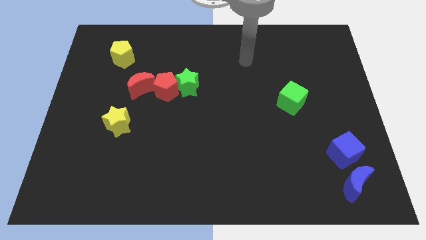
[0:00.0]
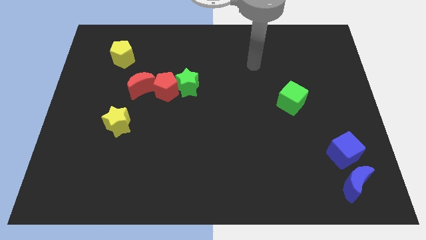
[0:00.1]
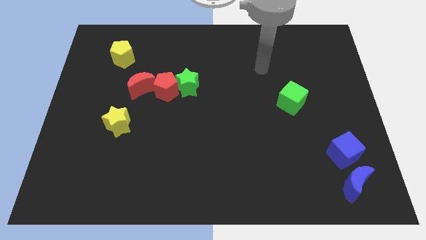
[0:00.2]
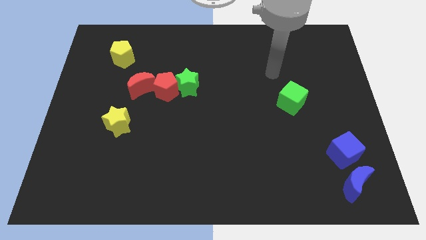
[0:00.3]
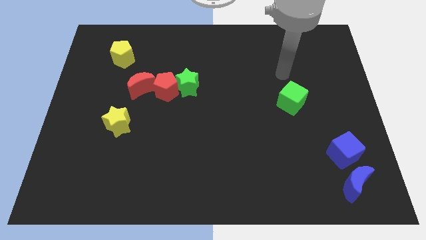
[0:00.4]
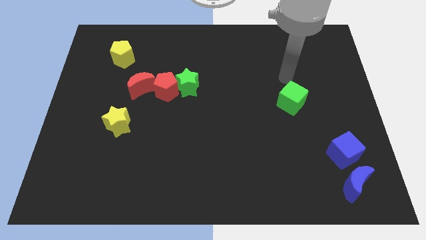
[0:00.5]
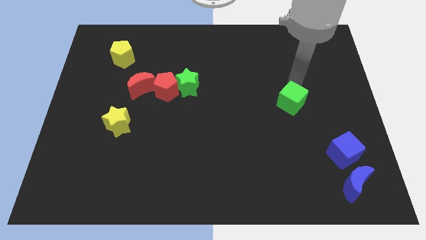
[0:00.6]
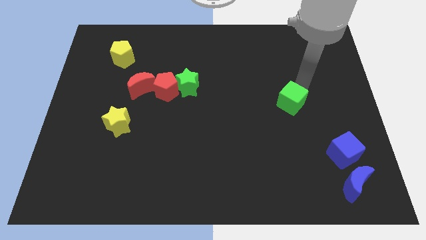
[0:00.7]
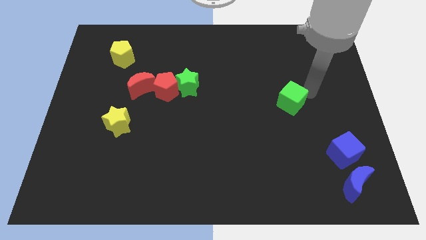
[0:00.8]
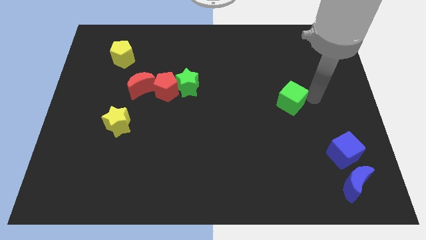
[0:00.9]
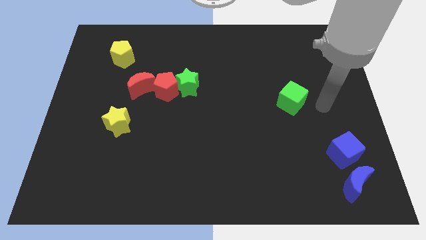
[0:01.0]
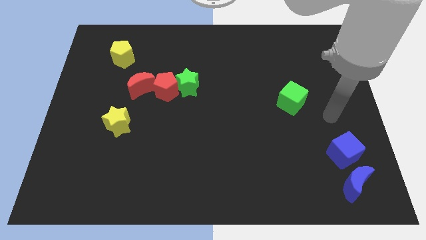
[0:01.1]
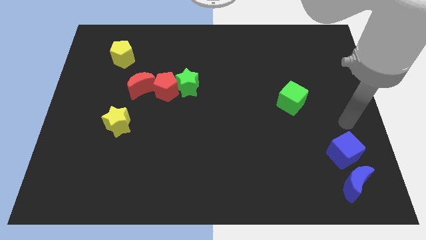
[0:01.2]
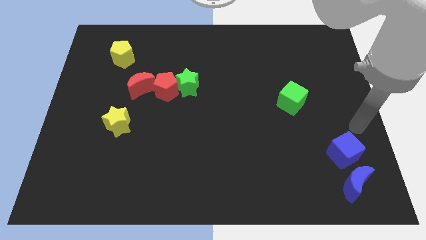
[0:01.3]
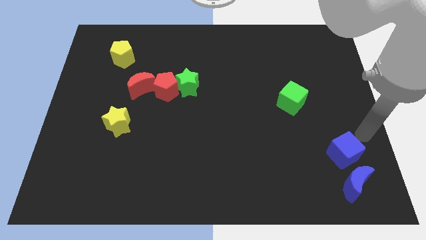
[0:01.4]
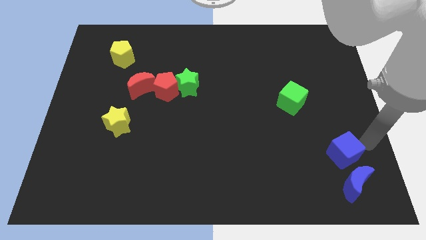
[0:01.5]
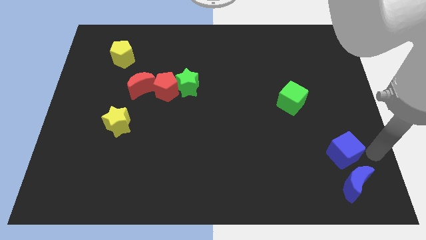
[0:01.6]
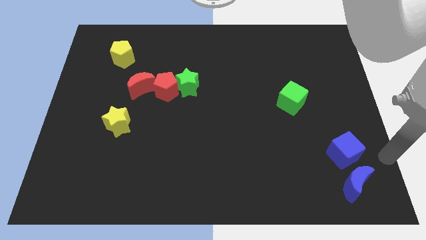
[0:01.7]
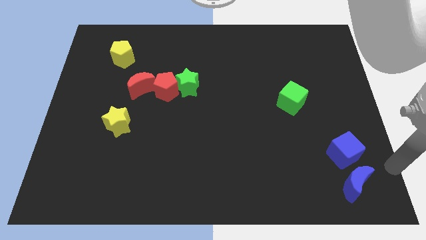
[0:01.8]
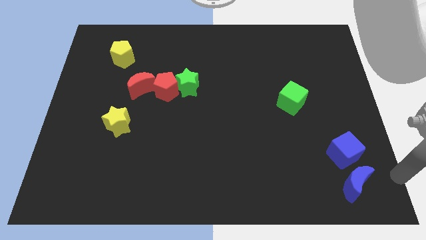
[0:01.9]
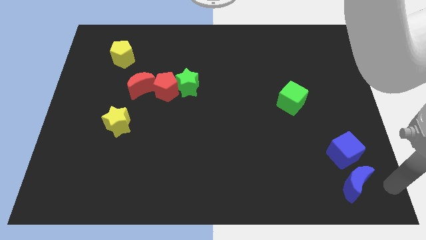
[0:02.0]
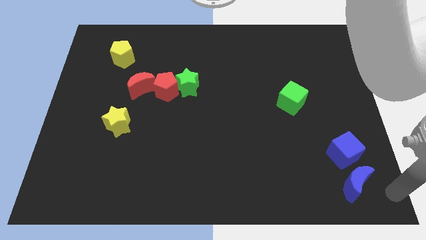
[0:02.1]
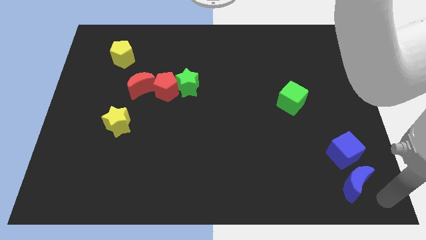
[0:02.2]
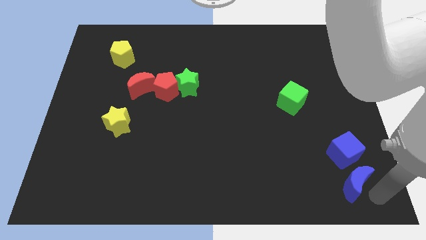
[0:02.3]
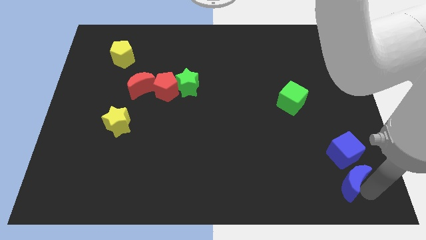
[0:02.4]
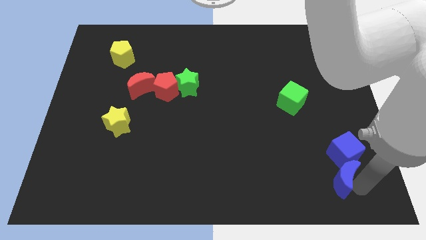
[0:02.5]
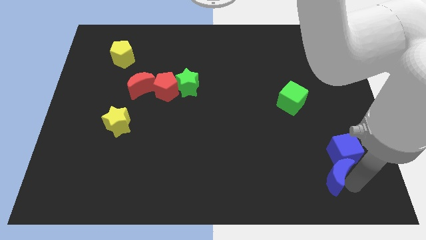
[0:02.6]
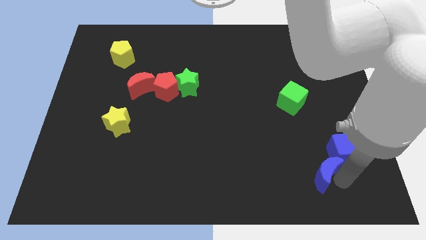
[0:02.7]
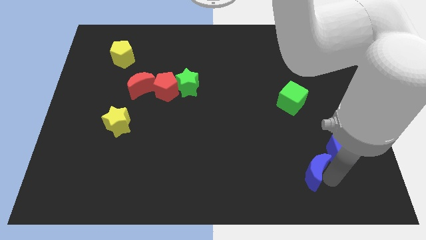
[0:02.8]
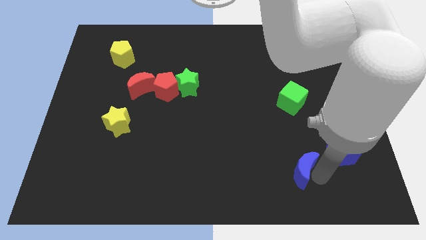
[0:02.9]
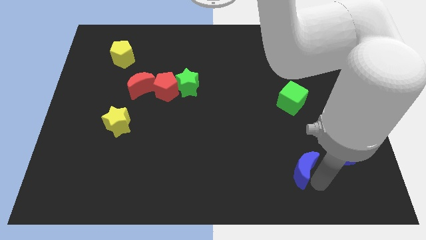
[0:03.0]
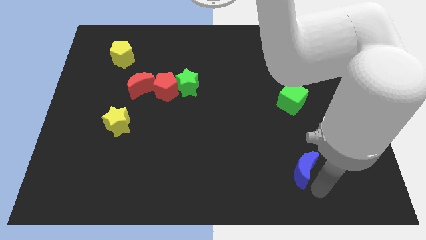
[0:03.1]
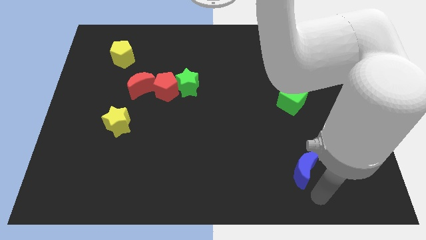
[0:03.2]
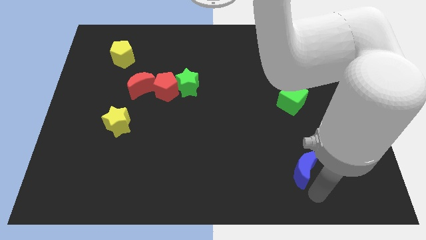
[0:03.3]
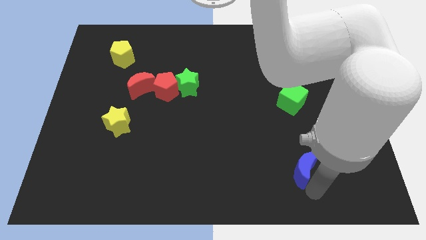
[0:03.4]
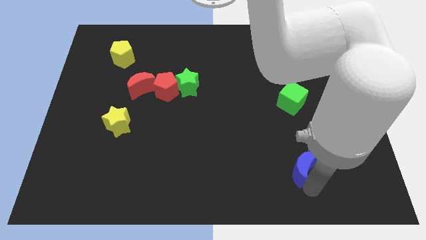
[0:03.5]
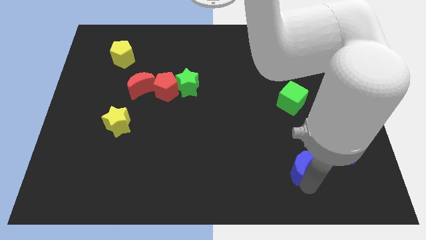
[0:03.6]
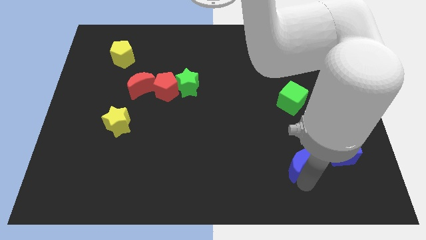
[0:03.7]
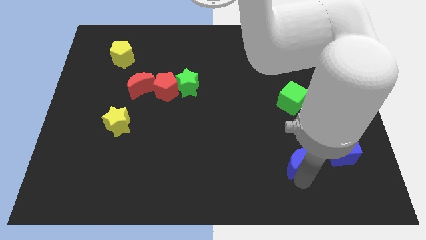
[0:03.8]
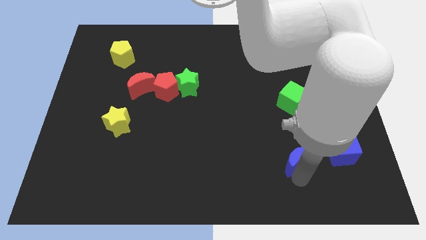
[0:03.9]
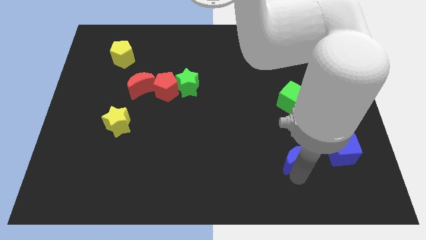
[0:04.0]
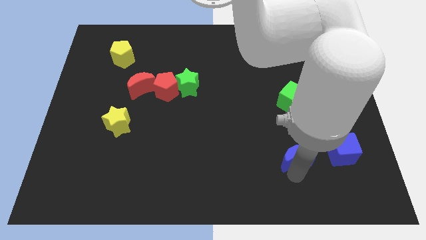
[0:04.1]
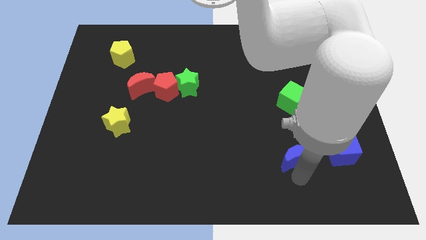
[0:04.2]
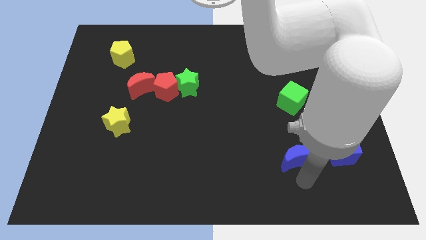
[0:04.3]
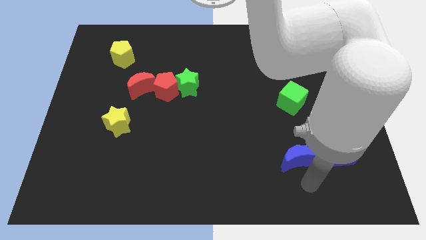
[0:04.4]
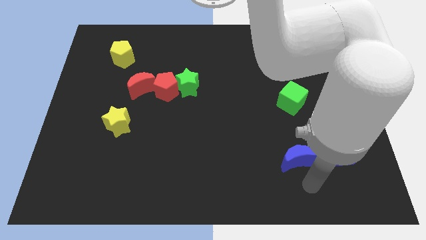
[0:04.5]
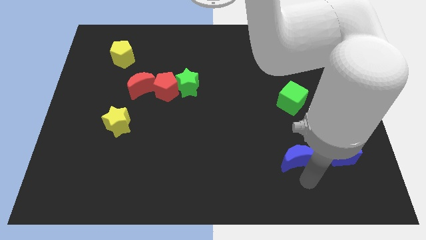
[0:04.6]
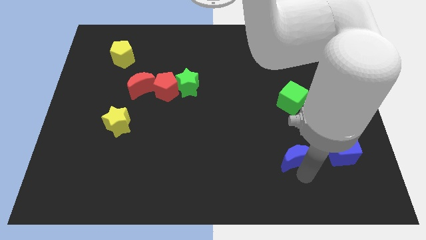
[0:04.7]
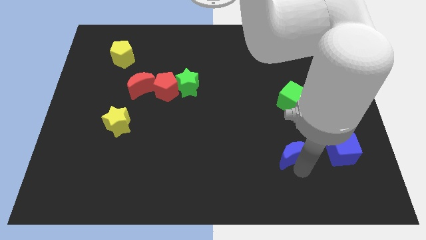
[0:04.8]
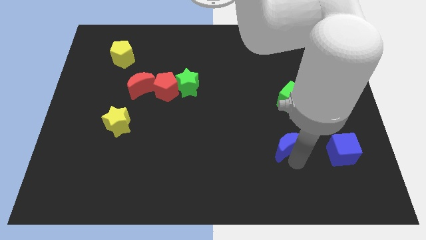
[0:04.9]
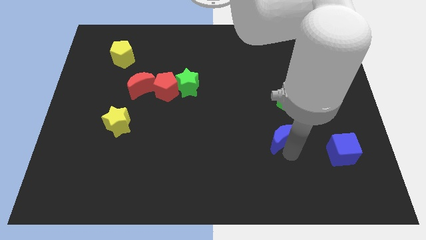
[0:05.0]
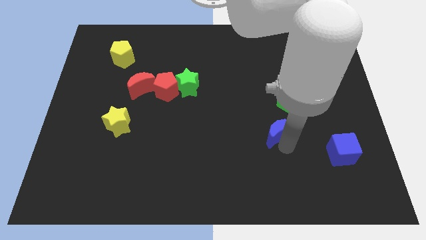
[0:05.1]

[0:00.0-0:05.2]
move the blue moon diagonally down and to the left of the green cube

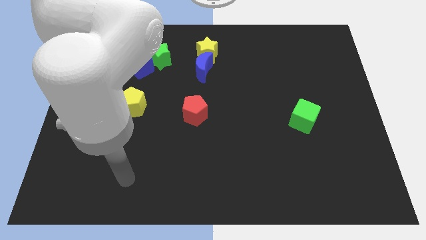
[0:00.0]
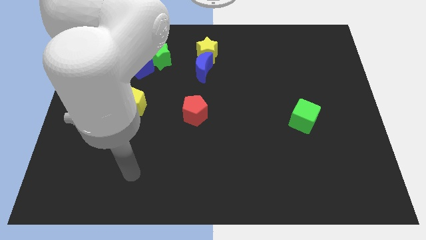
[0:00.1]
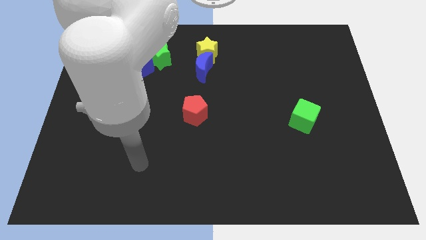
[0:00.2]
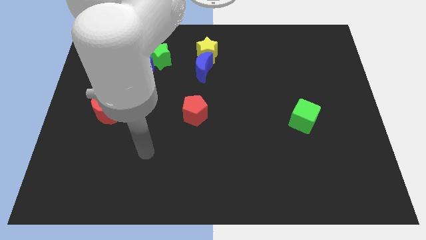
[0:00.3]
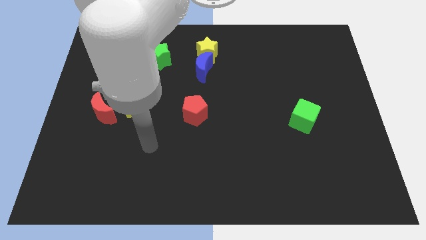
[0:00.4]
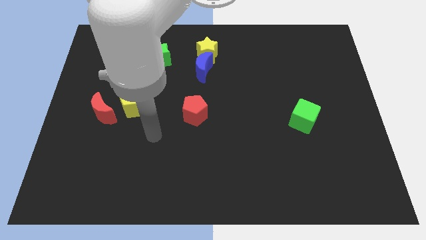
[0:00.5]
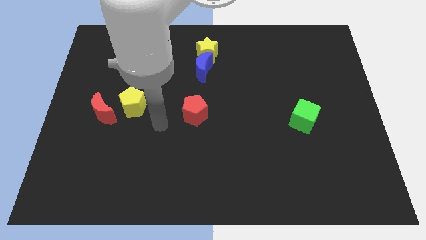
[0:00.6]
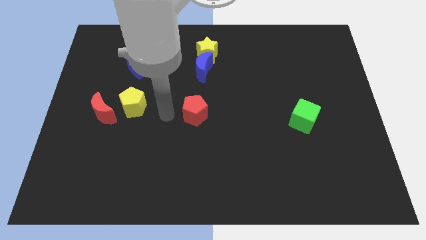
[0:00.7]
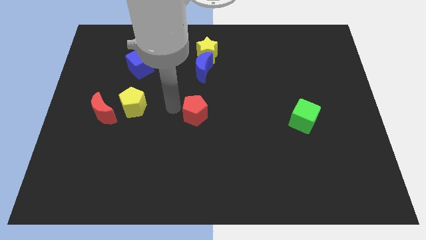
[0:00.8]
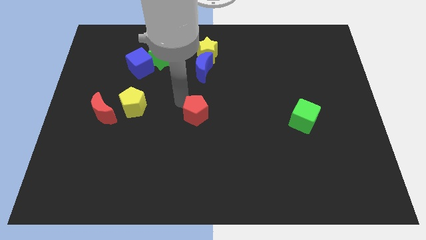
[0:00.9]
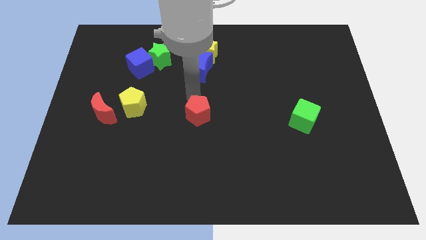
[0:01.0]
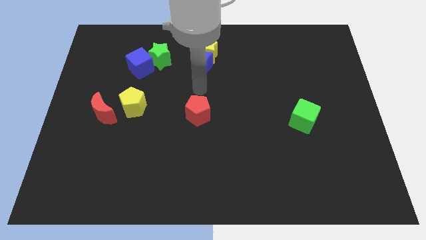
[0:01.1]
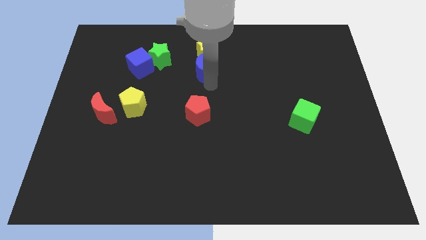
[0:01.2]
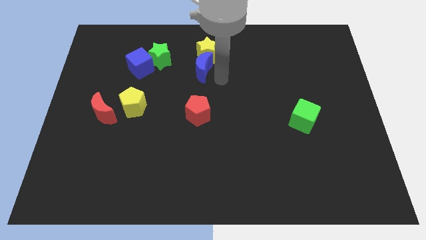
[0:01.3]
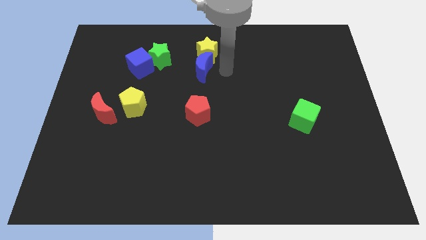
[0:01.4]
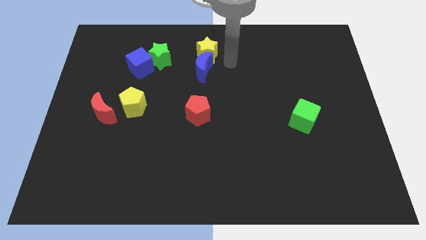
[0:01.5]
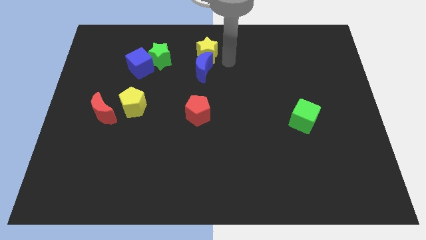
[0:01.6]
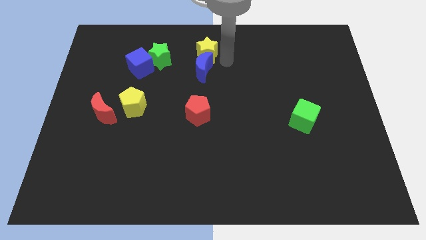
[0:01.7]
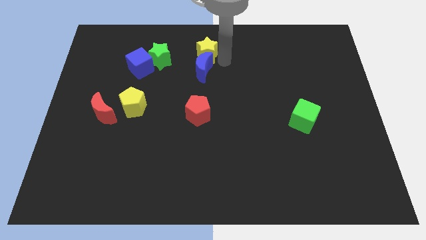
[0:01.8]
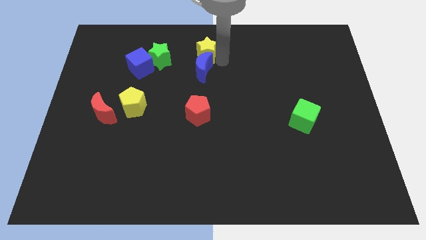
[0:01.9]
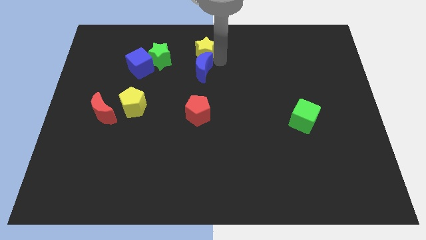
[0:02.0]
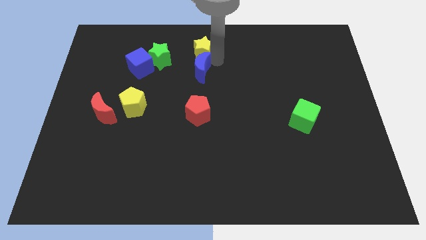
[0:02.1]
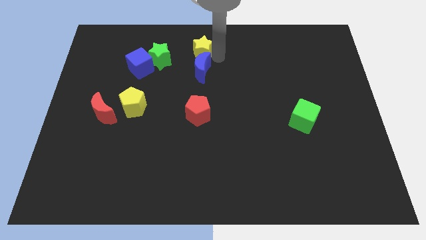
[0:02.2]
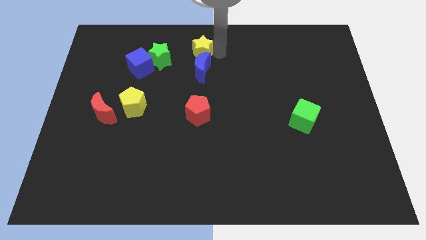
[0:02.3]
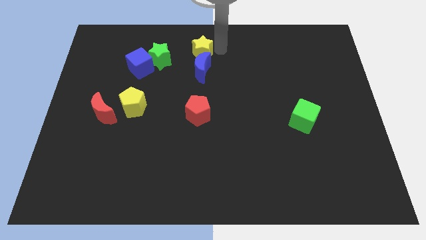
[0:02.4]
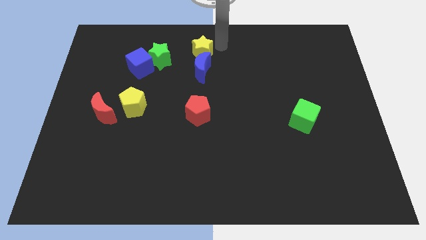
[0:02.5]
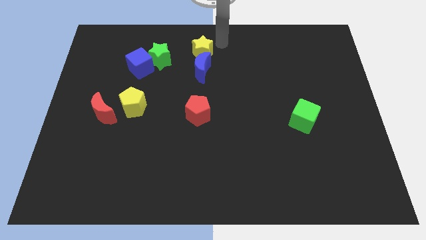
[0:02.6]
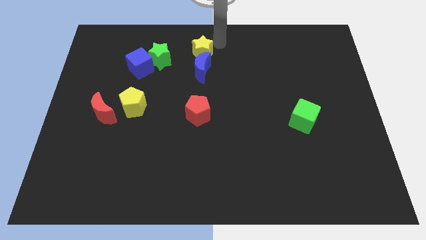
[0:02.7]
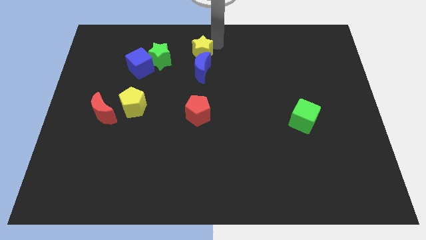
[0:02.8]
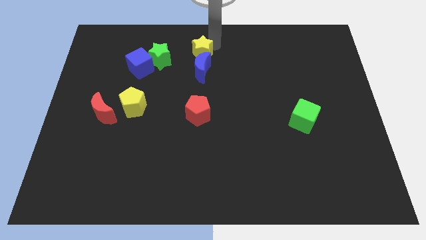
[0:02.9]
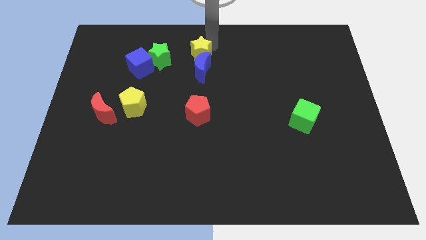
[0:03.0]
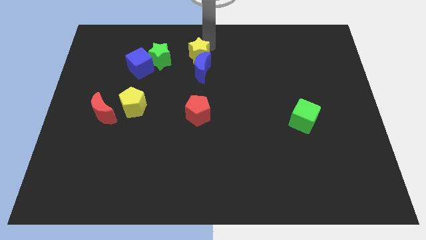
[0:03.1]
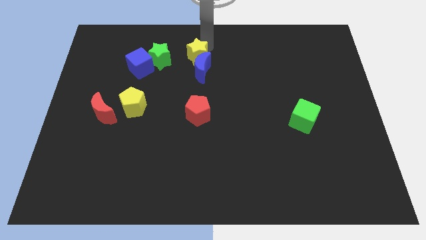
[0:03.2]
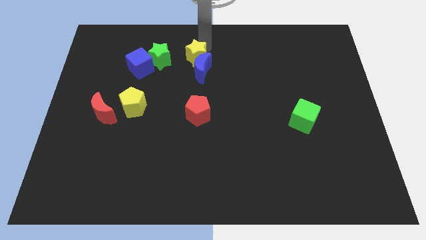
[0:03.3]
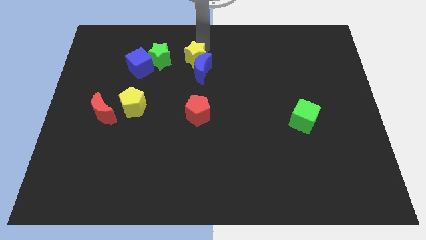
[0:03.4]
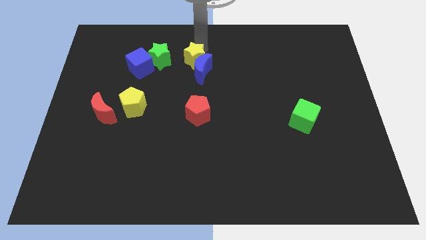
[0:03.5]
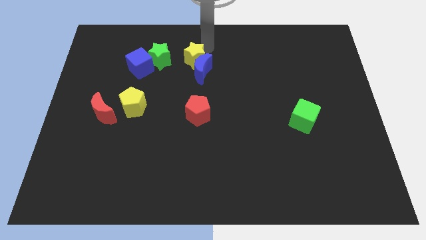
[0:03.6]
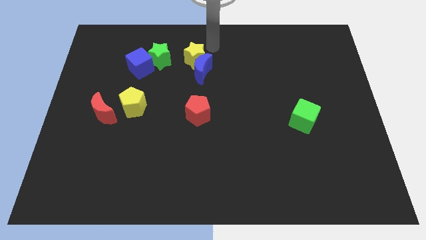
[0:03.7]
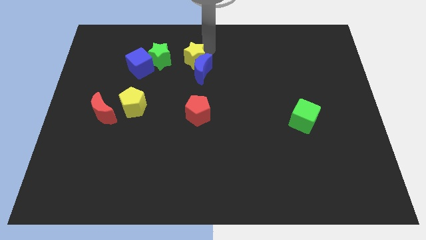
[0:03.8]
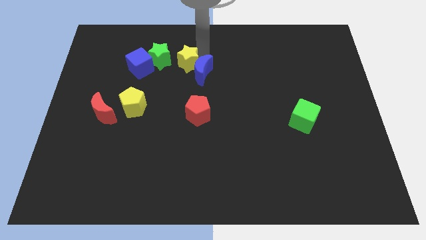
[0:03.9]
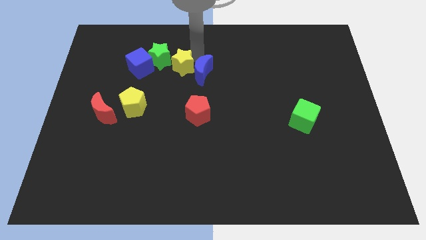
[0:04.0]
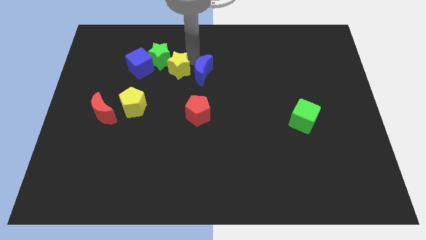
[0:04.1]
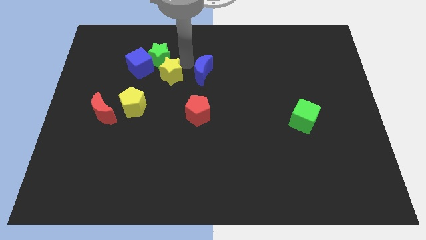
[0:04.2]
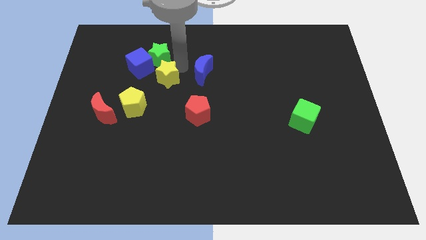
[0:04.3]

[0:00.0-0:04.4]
push the yellow star to the top right of the yellow pentagon
